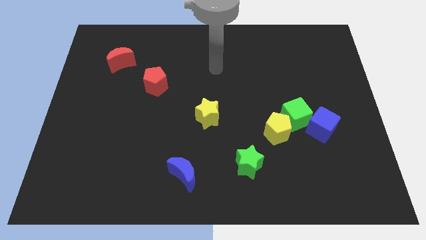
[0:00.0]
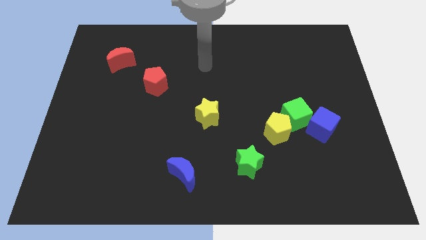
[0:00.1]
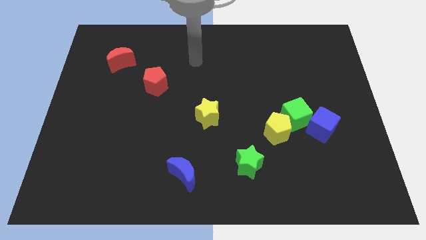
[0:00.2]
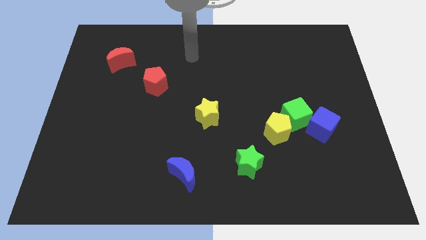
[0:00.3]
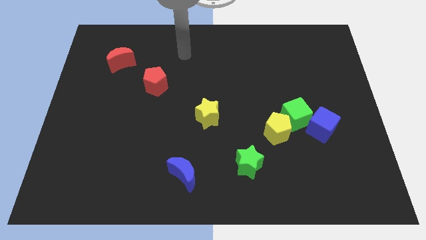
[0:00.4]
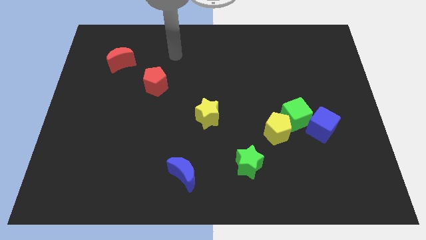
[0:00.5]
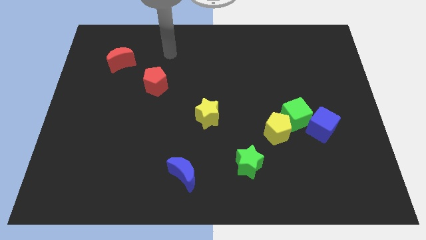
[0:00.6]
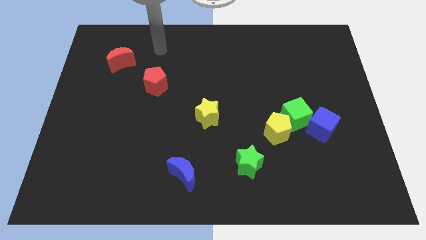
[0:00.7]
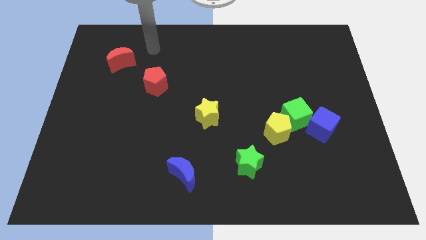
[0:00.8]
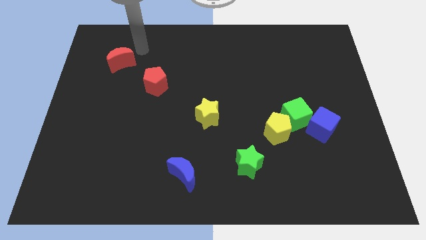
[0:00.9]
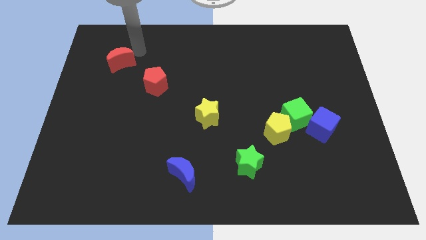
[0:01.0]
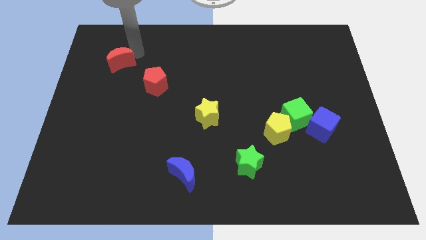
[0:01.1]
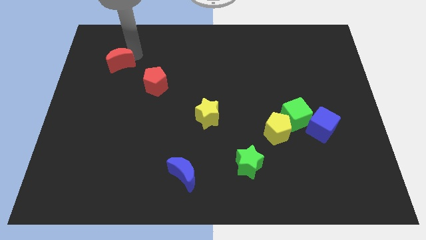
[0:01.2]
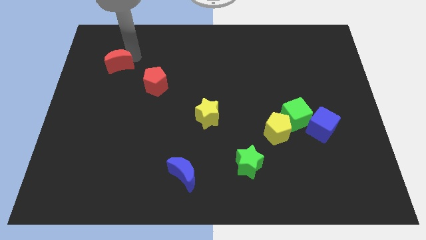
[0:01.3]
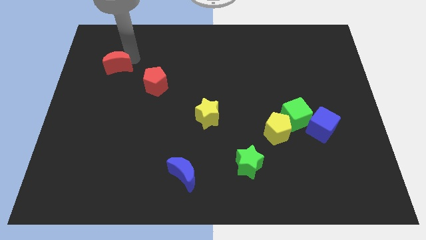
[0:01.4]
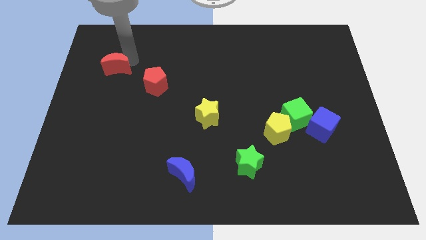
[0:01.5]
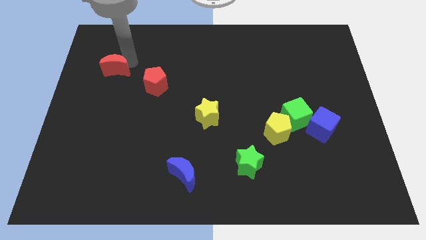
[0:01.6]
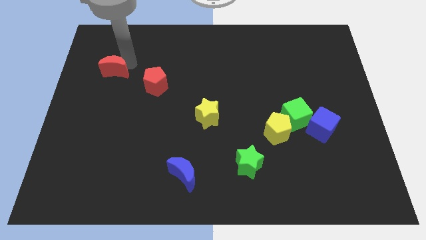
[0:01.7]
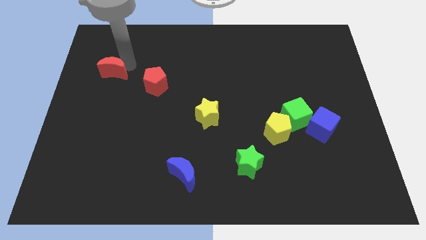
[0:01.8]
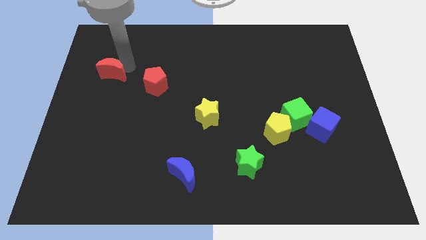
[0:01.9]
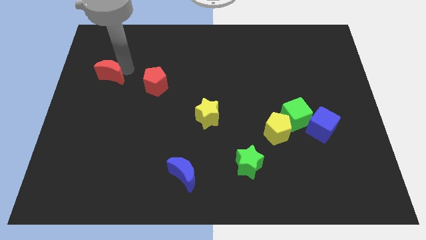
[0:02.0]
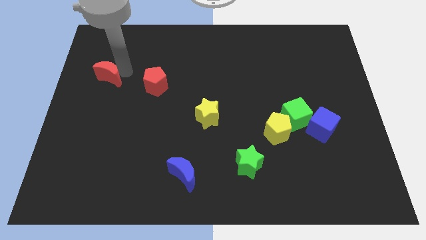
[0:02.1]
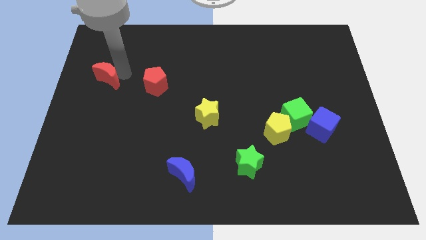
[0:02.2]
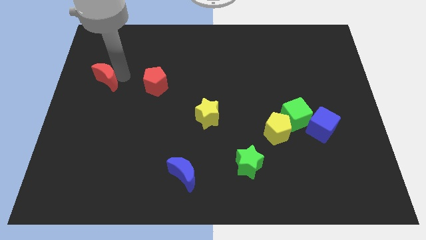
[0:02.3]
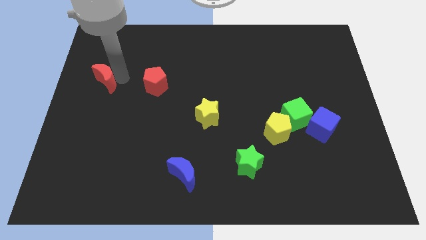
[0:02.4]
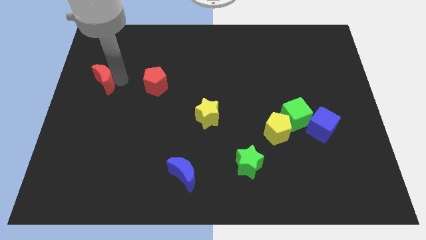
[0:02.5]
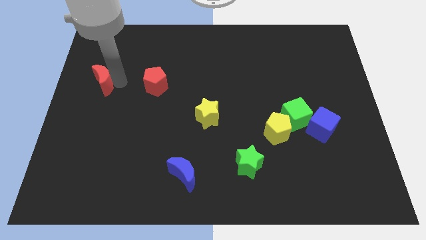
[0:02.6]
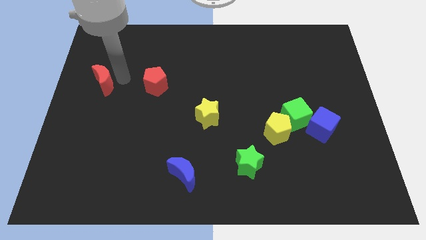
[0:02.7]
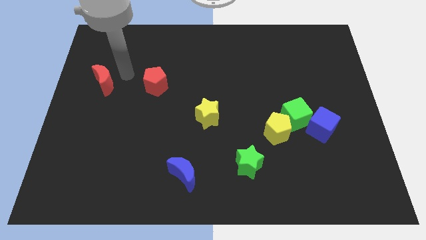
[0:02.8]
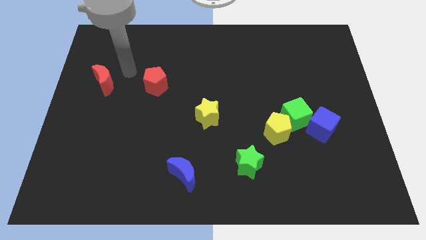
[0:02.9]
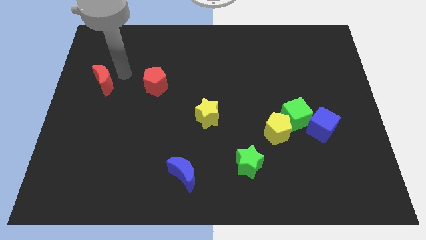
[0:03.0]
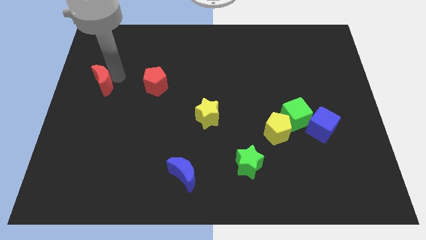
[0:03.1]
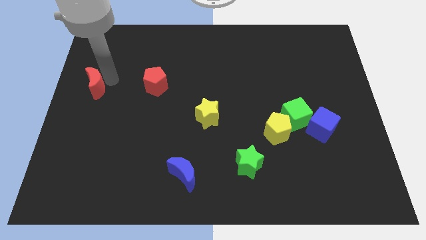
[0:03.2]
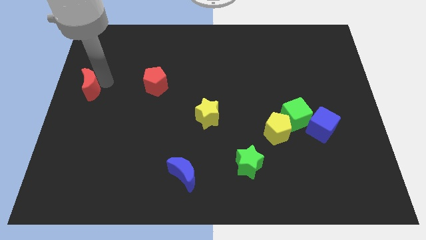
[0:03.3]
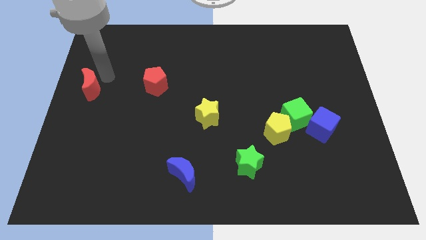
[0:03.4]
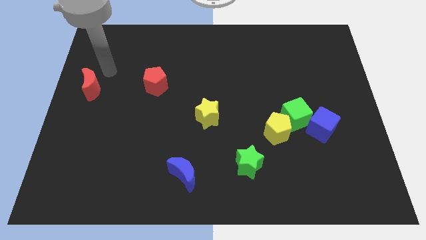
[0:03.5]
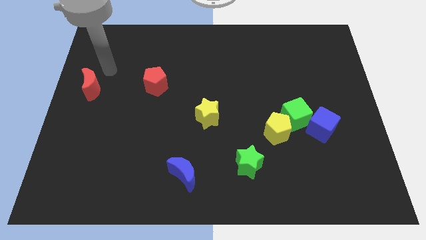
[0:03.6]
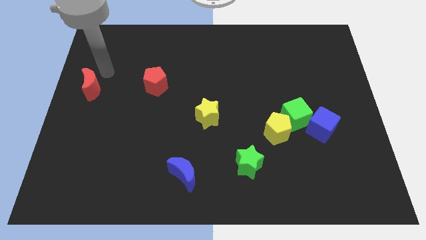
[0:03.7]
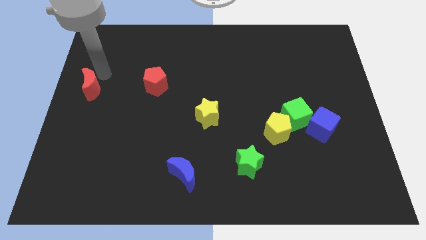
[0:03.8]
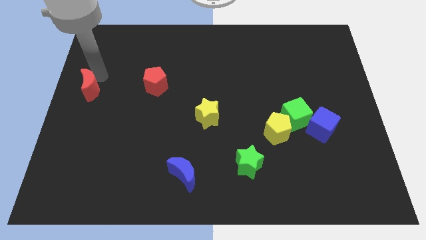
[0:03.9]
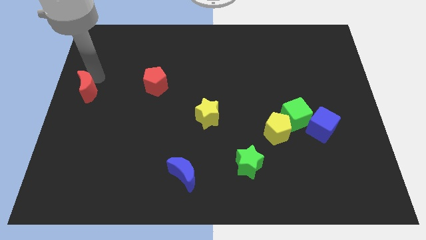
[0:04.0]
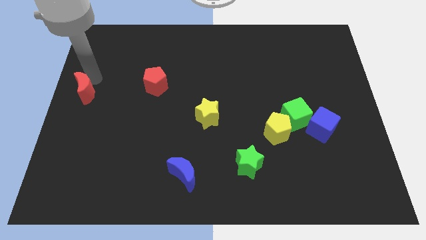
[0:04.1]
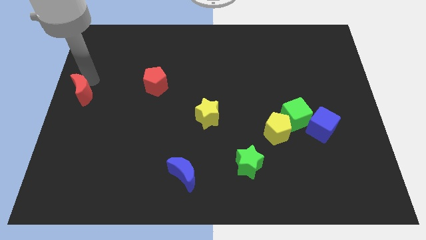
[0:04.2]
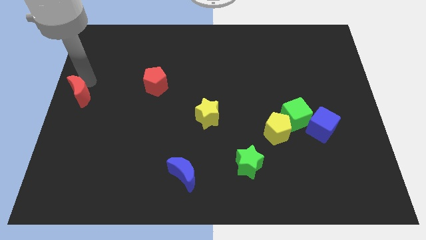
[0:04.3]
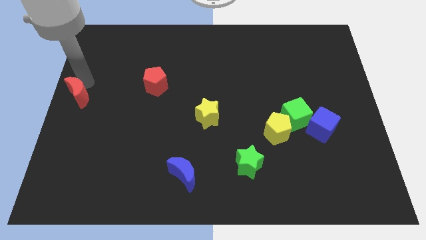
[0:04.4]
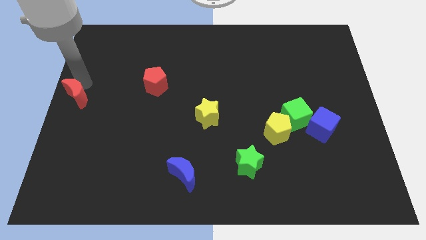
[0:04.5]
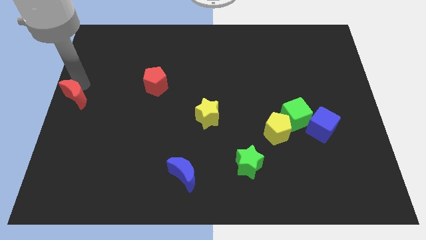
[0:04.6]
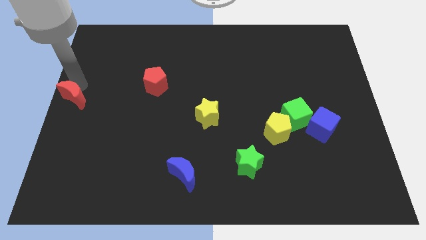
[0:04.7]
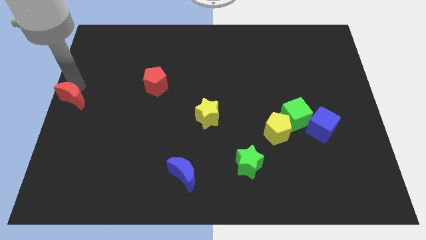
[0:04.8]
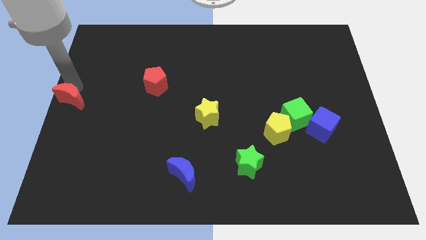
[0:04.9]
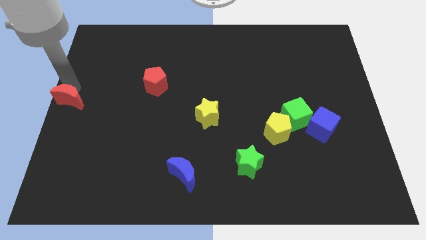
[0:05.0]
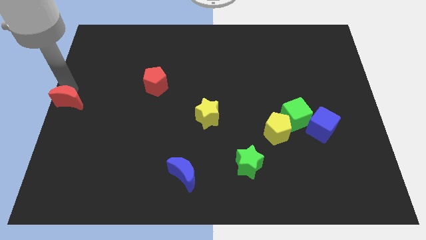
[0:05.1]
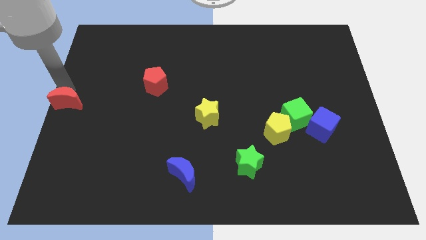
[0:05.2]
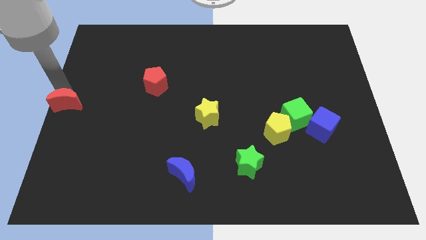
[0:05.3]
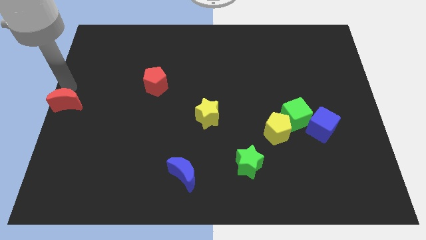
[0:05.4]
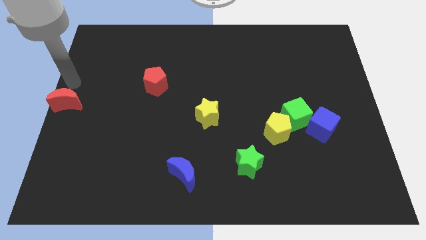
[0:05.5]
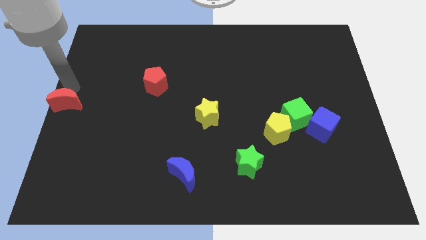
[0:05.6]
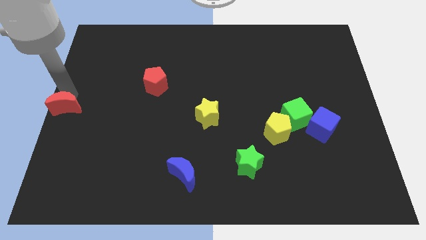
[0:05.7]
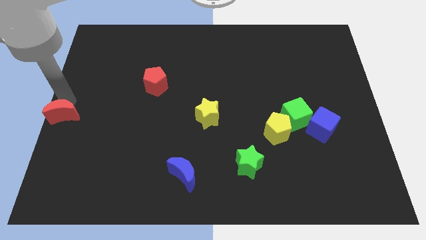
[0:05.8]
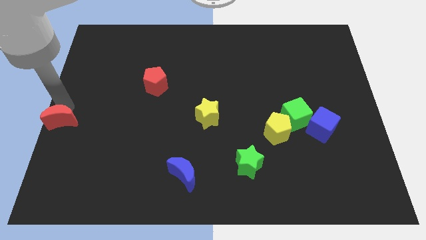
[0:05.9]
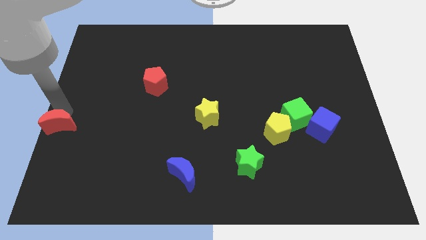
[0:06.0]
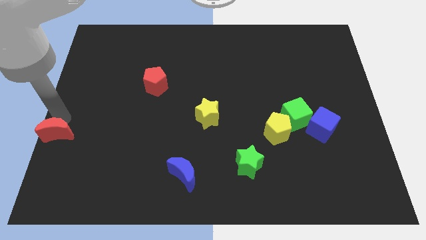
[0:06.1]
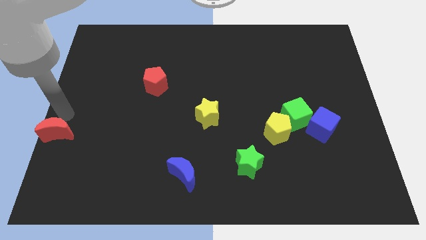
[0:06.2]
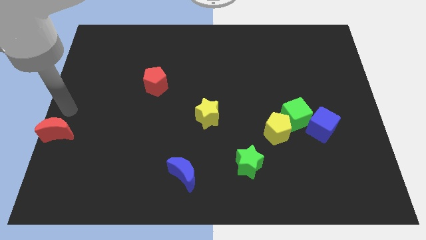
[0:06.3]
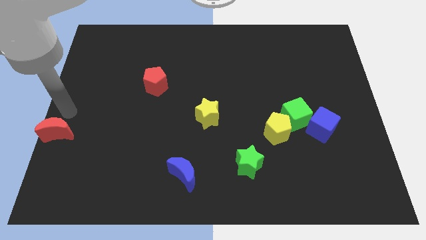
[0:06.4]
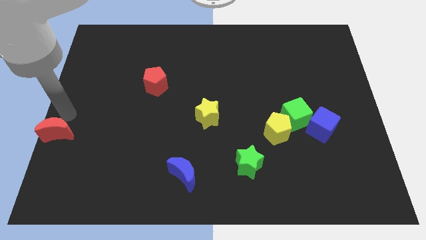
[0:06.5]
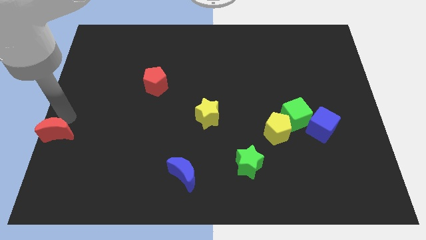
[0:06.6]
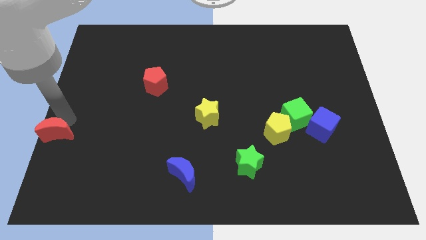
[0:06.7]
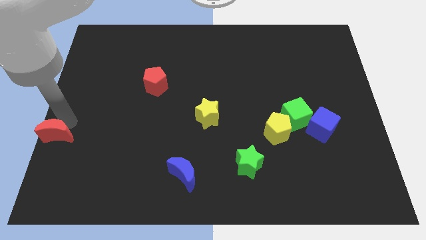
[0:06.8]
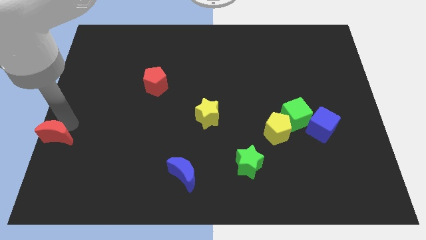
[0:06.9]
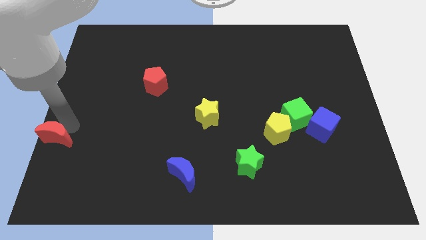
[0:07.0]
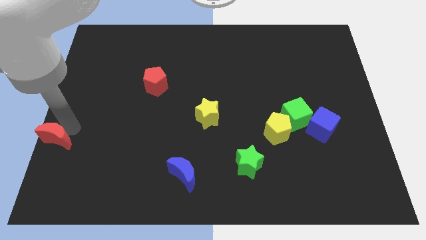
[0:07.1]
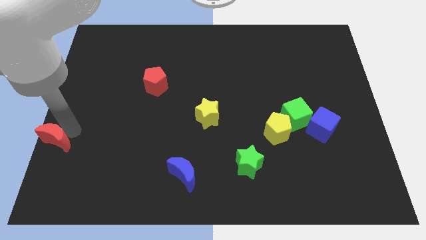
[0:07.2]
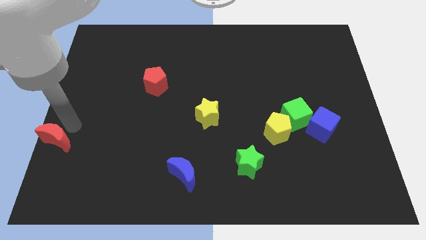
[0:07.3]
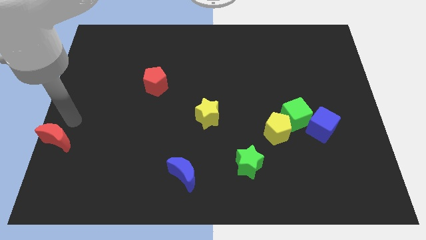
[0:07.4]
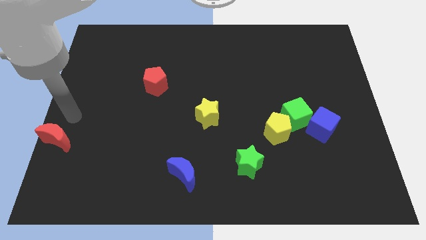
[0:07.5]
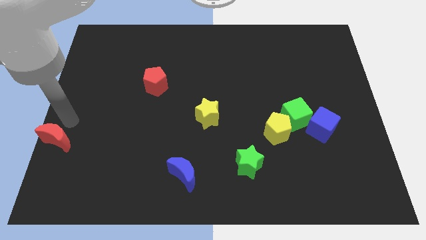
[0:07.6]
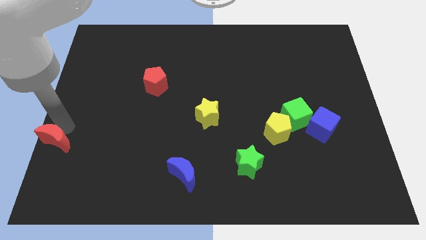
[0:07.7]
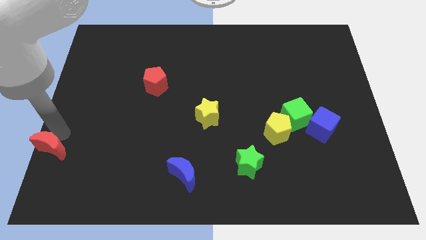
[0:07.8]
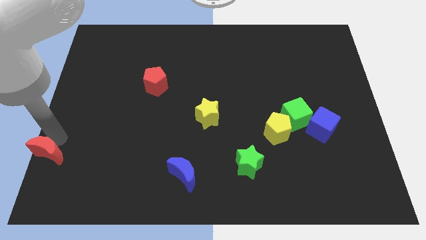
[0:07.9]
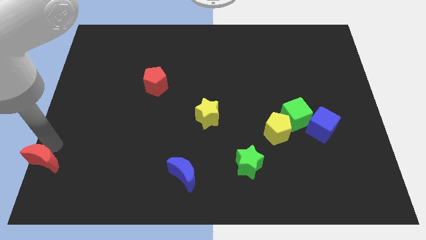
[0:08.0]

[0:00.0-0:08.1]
push the red moon to the bottom left of the board

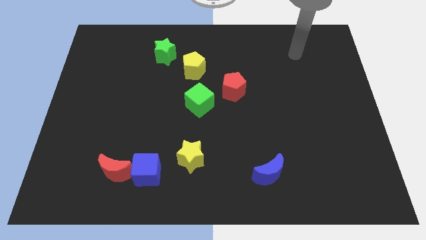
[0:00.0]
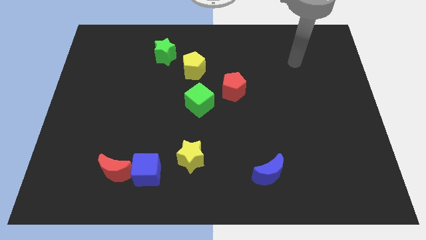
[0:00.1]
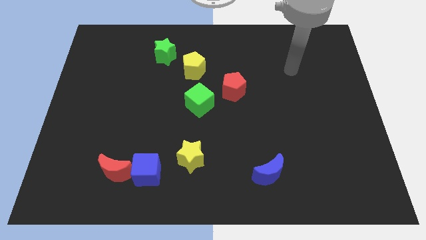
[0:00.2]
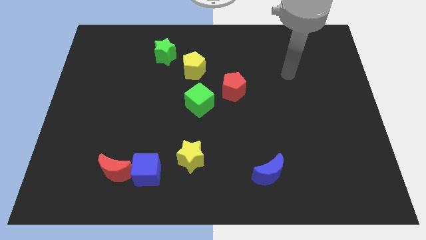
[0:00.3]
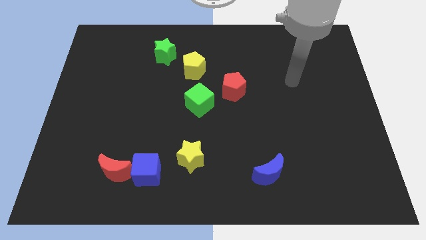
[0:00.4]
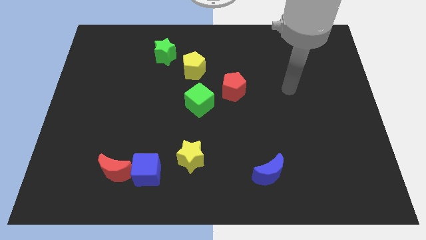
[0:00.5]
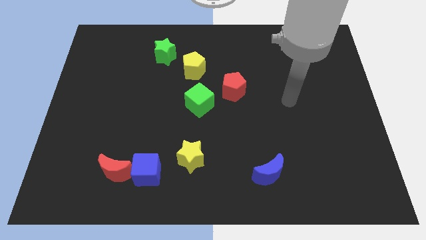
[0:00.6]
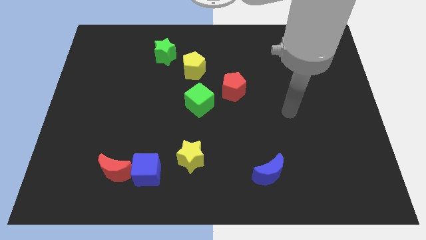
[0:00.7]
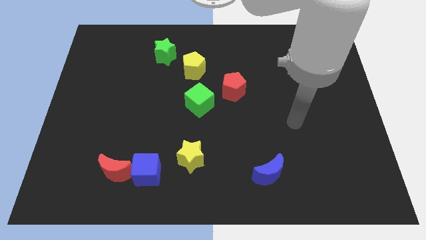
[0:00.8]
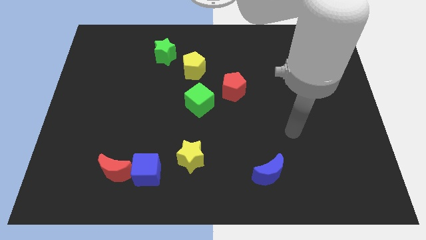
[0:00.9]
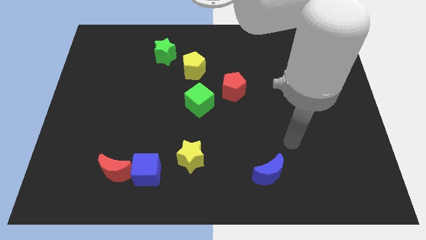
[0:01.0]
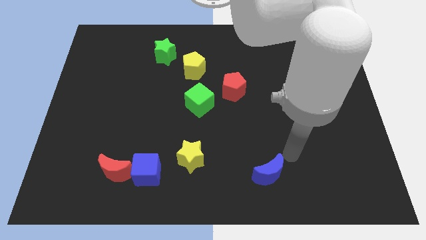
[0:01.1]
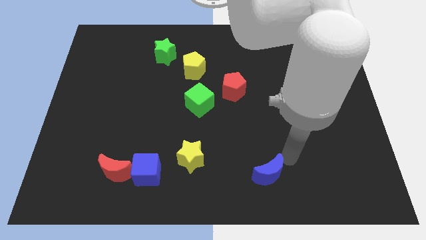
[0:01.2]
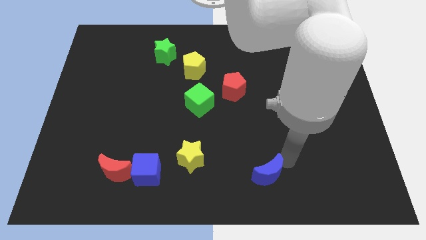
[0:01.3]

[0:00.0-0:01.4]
move the blue moon to the bottom side
